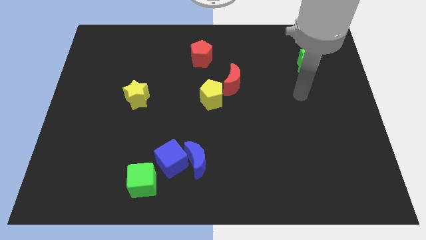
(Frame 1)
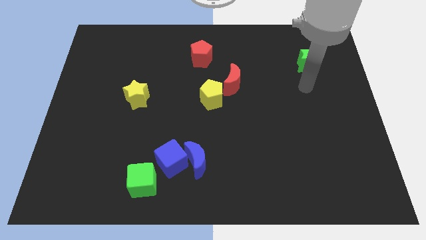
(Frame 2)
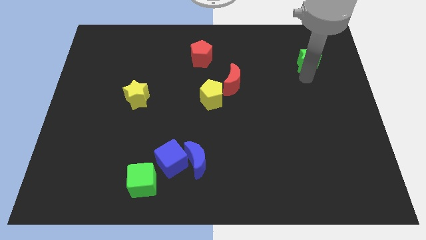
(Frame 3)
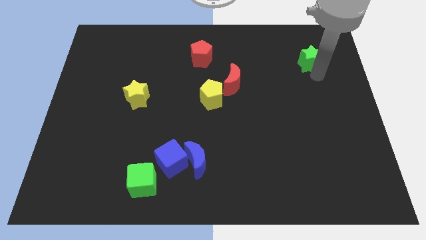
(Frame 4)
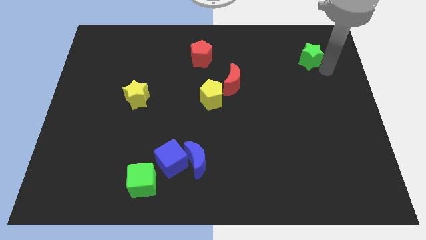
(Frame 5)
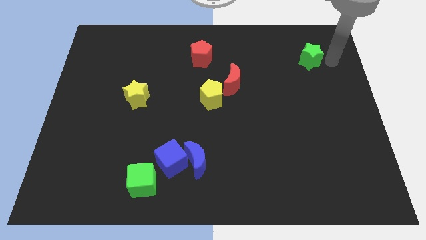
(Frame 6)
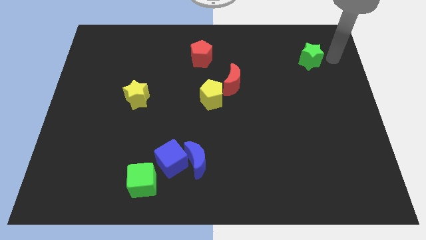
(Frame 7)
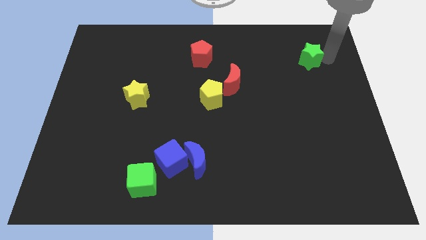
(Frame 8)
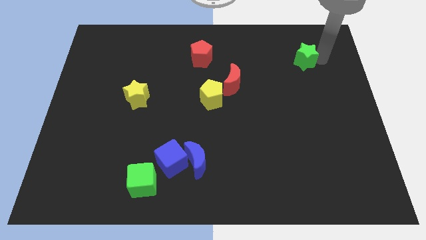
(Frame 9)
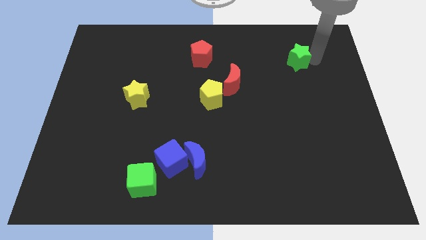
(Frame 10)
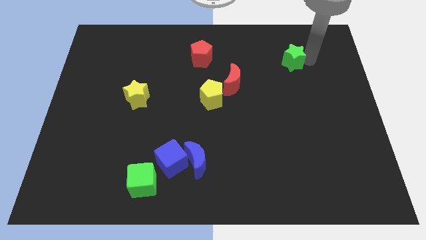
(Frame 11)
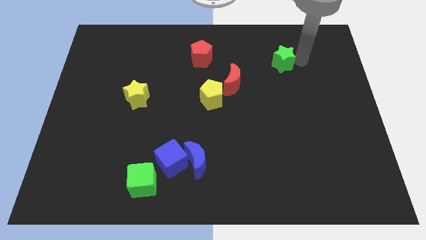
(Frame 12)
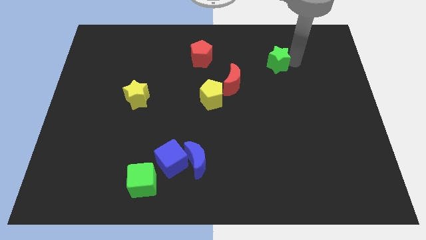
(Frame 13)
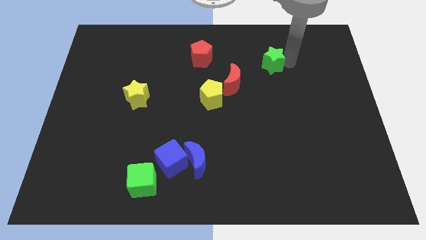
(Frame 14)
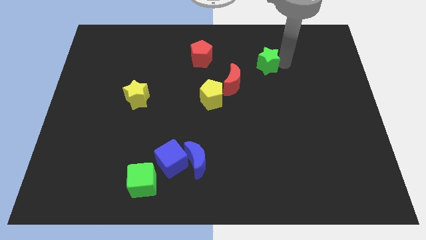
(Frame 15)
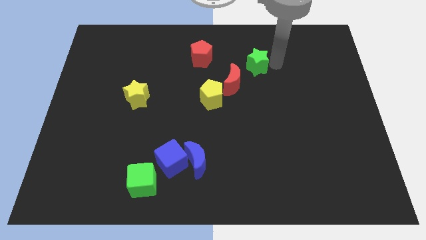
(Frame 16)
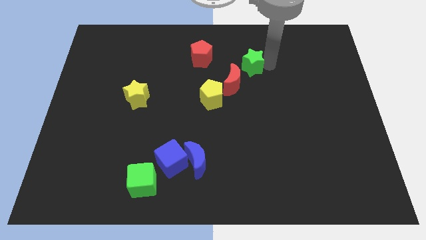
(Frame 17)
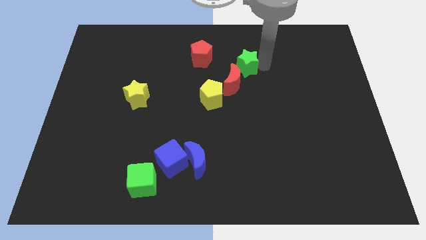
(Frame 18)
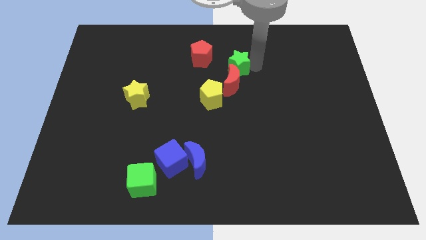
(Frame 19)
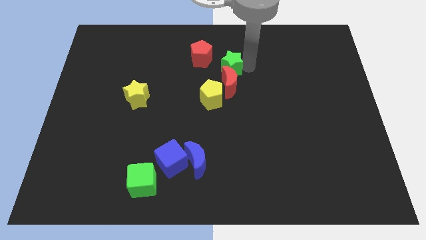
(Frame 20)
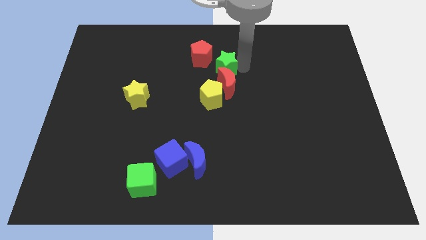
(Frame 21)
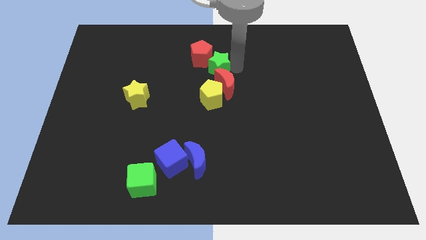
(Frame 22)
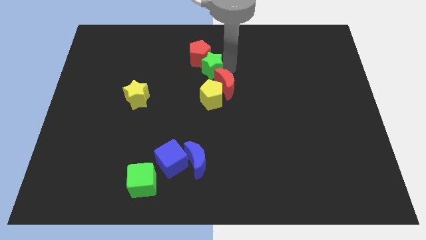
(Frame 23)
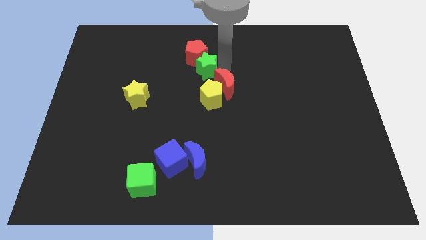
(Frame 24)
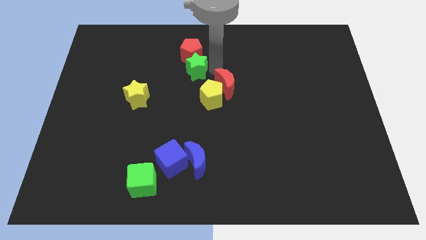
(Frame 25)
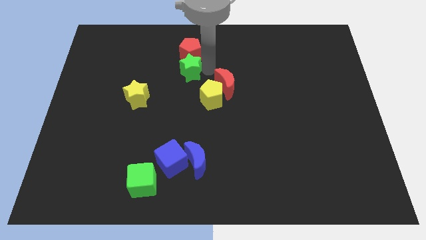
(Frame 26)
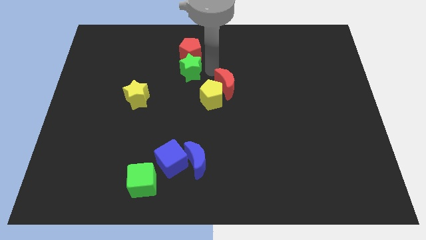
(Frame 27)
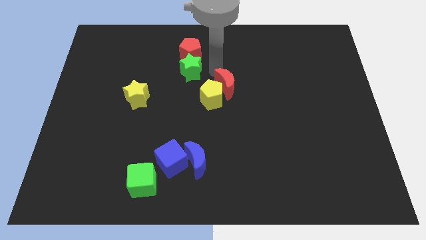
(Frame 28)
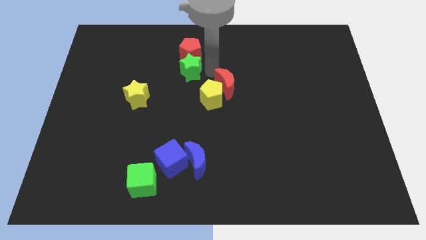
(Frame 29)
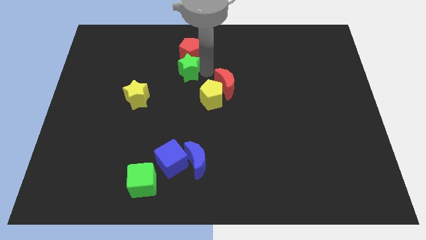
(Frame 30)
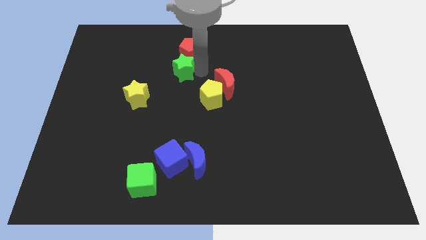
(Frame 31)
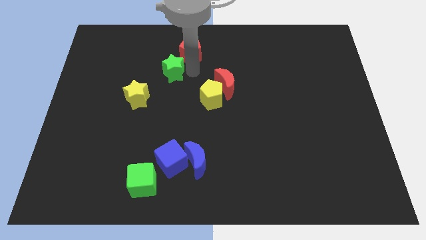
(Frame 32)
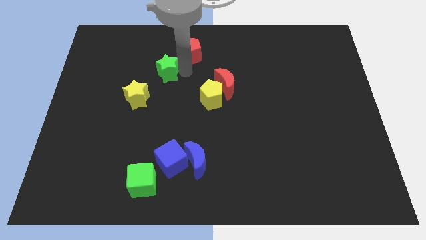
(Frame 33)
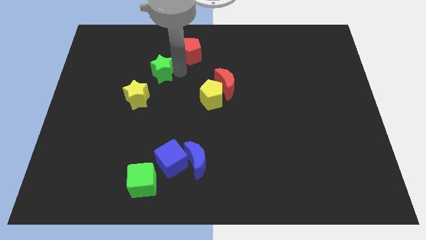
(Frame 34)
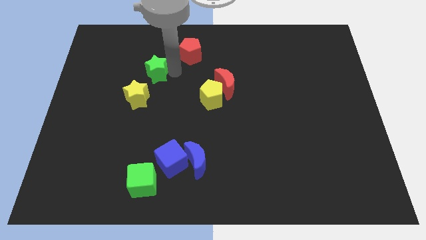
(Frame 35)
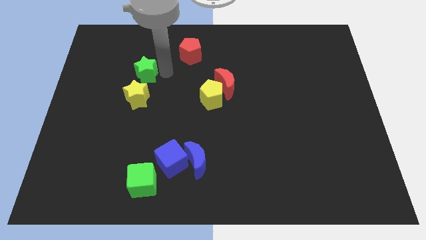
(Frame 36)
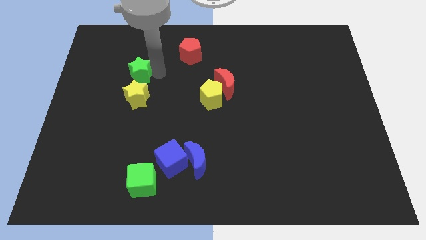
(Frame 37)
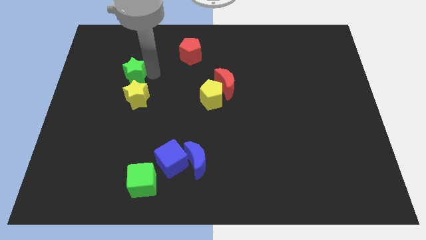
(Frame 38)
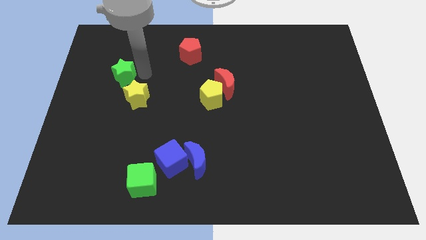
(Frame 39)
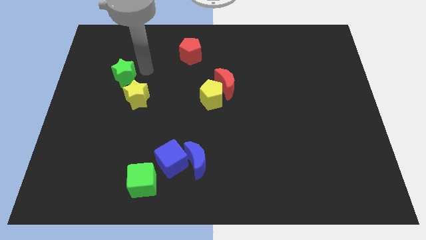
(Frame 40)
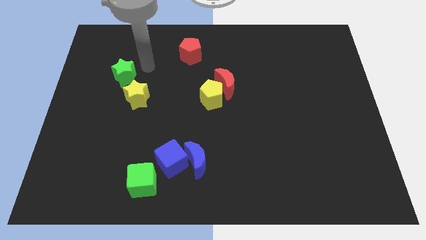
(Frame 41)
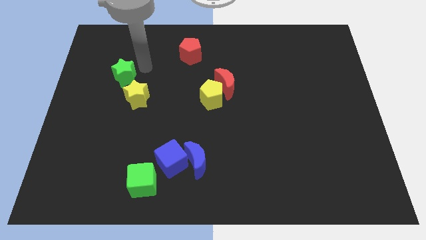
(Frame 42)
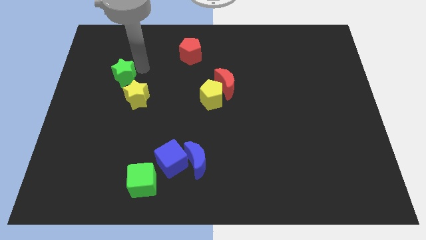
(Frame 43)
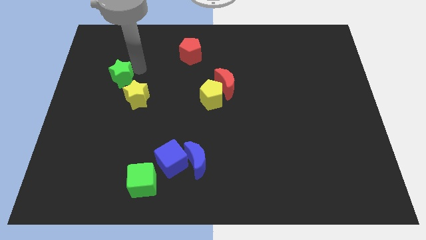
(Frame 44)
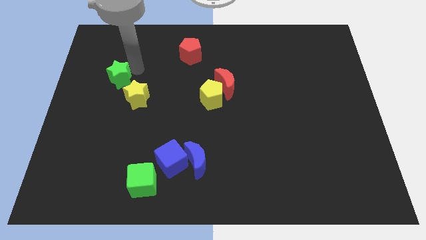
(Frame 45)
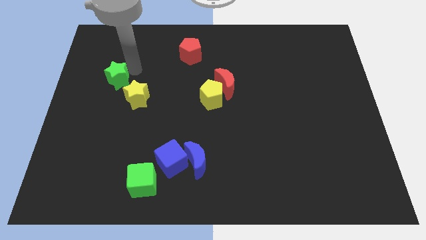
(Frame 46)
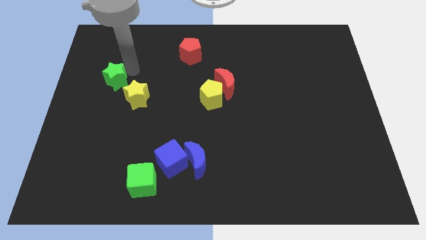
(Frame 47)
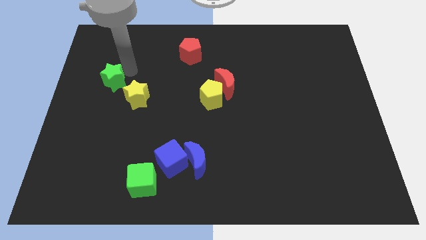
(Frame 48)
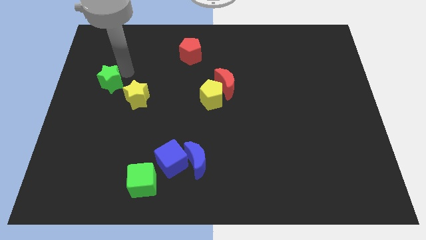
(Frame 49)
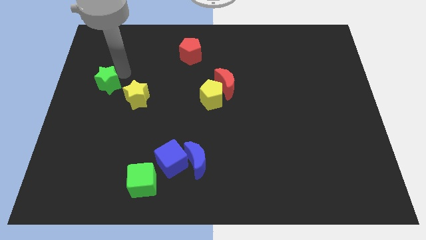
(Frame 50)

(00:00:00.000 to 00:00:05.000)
put the green star to the left side

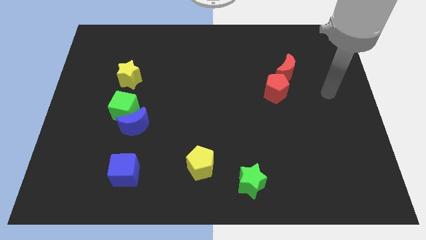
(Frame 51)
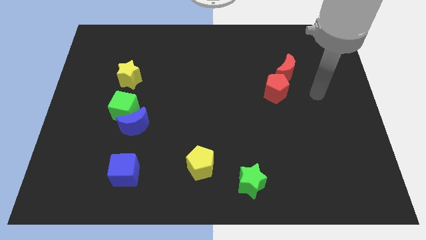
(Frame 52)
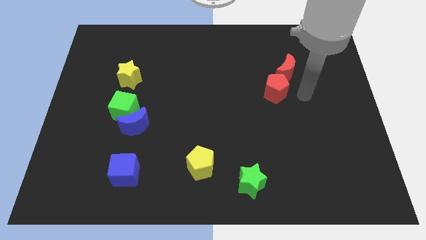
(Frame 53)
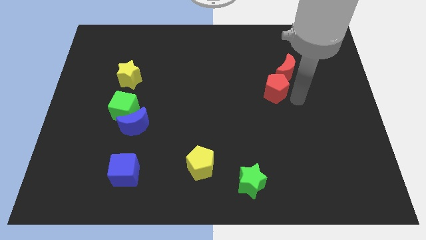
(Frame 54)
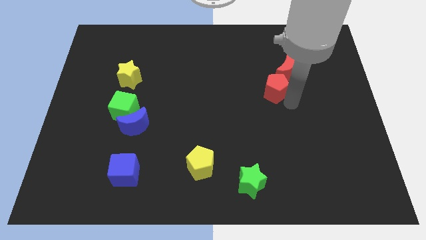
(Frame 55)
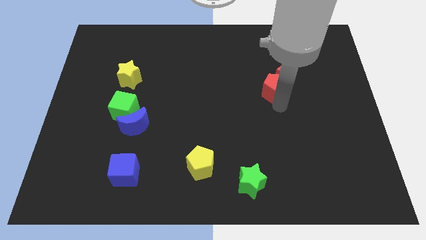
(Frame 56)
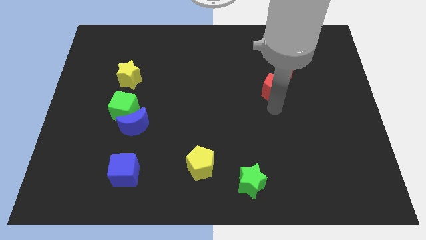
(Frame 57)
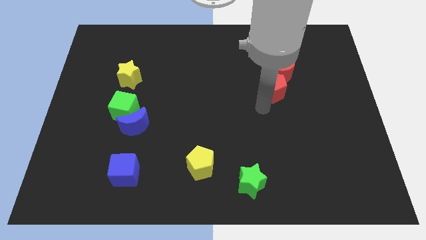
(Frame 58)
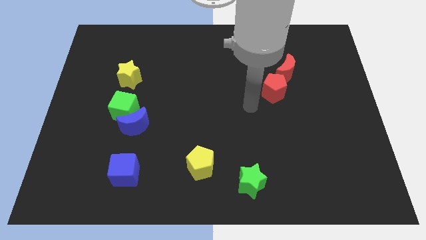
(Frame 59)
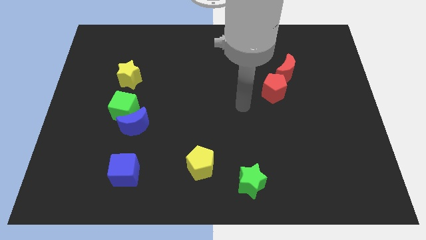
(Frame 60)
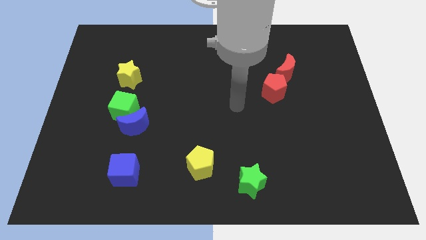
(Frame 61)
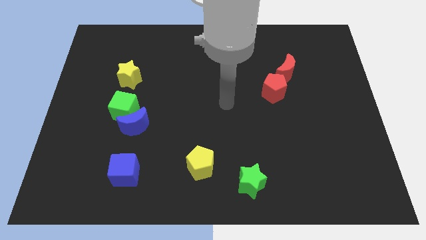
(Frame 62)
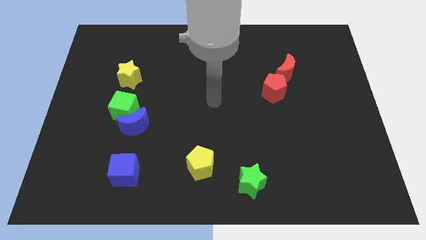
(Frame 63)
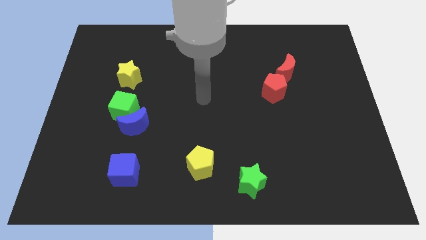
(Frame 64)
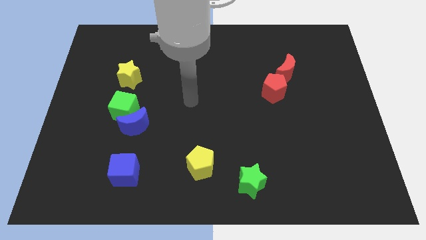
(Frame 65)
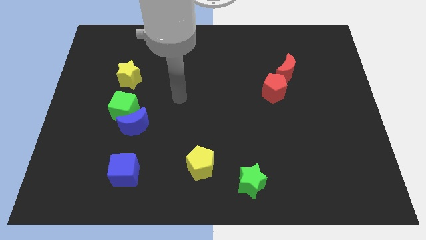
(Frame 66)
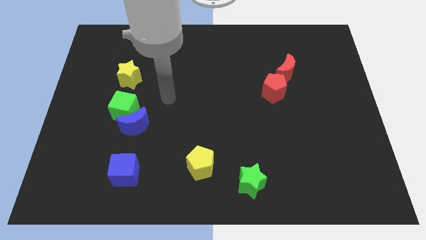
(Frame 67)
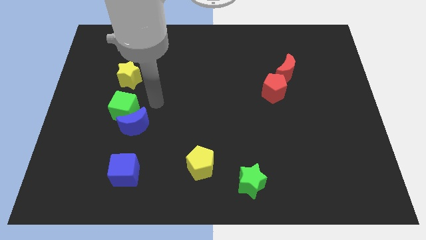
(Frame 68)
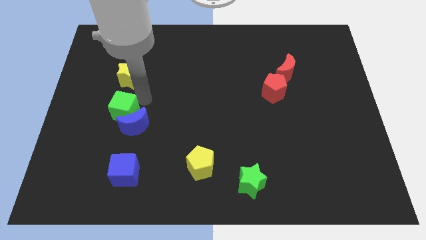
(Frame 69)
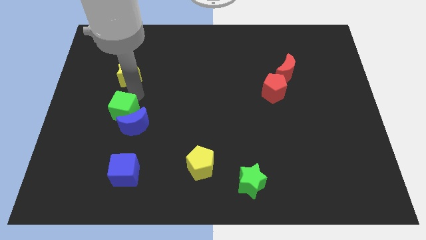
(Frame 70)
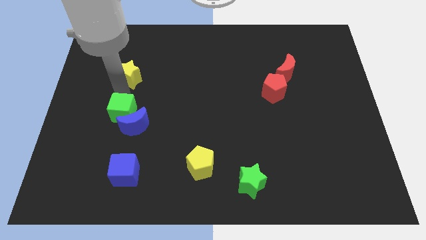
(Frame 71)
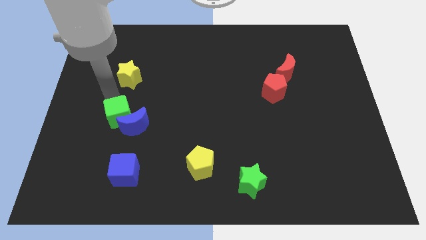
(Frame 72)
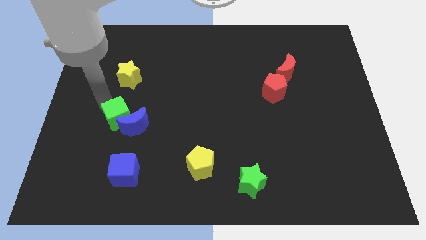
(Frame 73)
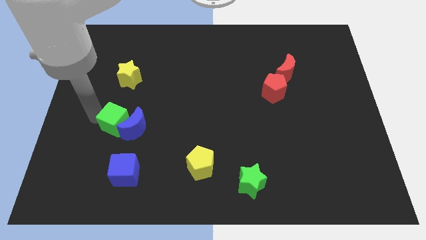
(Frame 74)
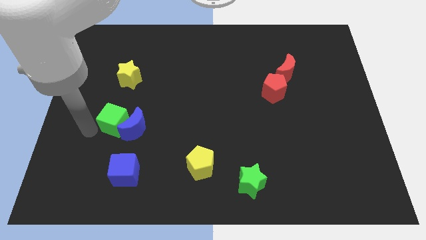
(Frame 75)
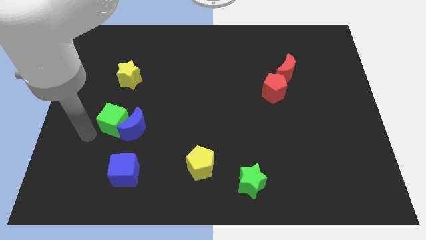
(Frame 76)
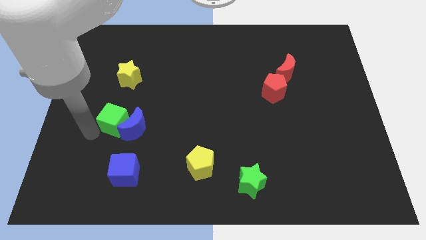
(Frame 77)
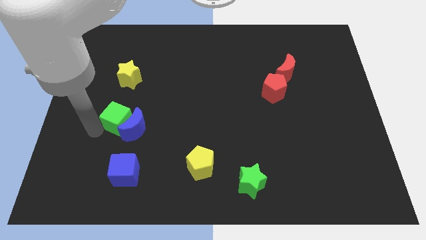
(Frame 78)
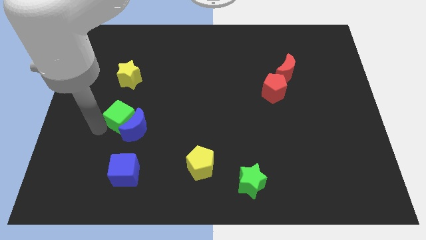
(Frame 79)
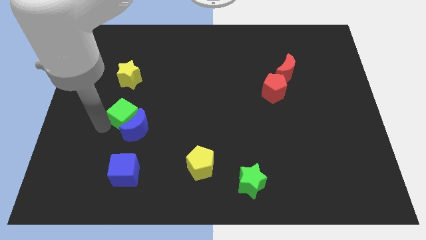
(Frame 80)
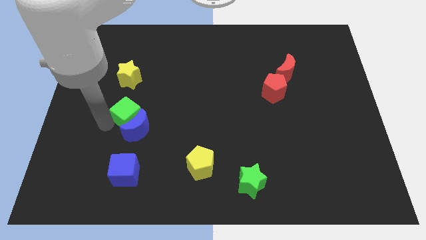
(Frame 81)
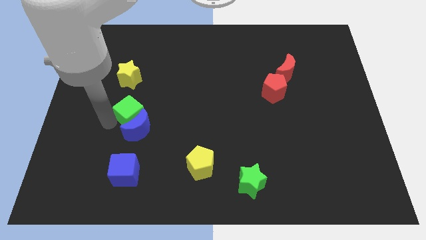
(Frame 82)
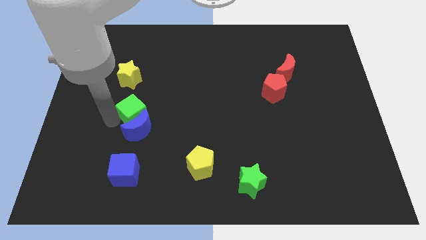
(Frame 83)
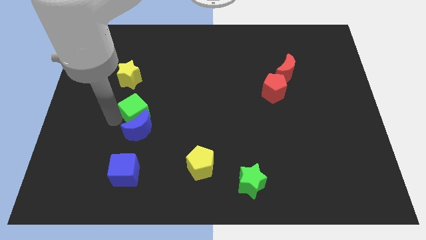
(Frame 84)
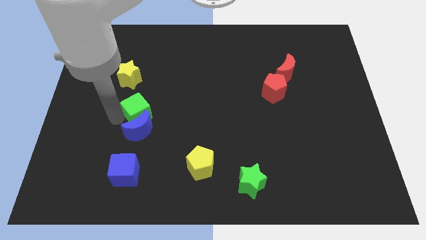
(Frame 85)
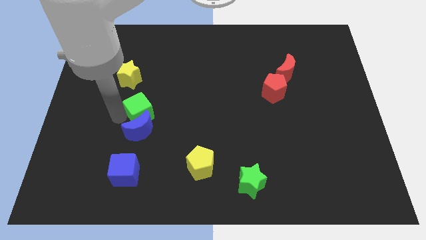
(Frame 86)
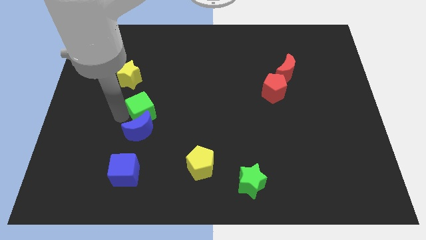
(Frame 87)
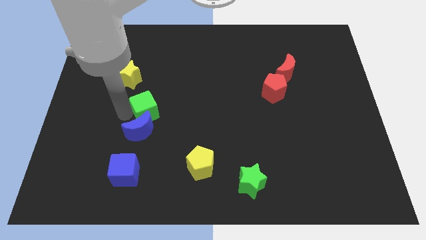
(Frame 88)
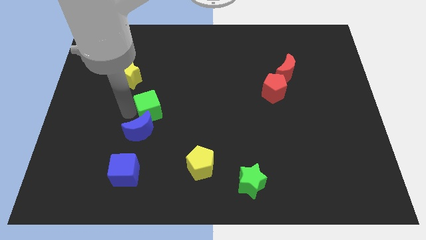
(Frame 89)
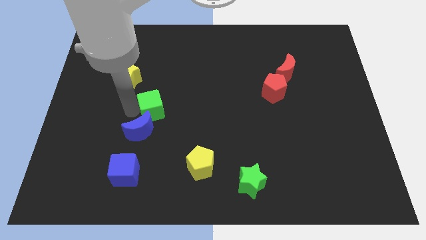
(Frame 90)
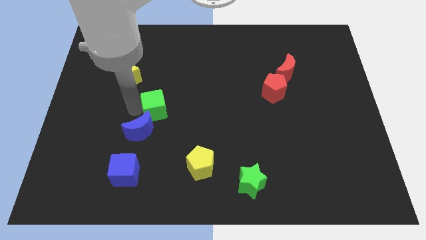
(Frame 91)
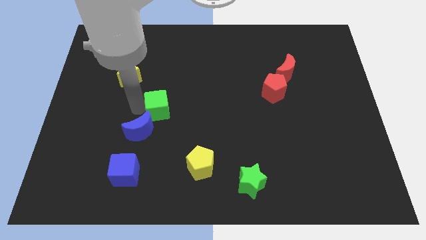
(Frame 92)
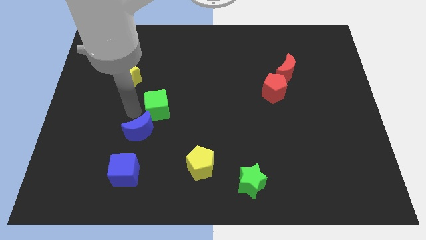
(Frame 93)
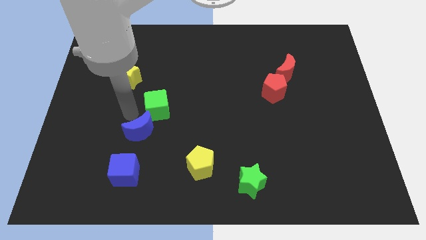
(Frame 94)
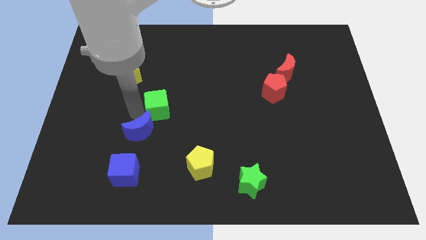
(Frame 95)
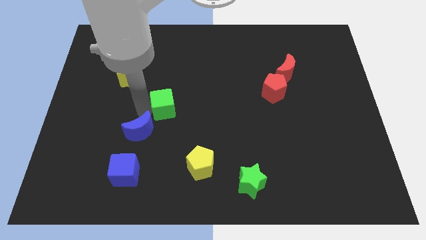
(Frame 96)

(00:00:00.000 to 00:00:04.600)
put the green cube to the middle of the board
